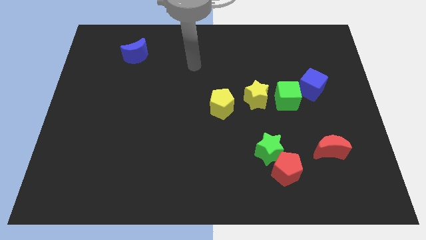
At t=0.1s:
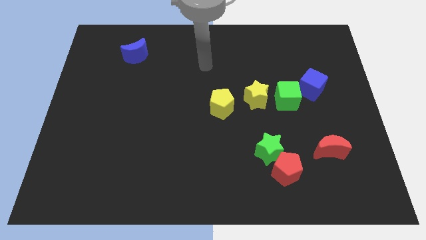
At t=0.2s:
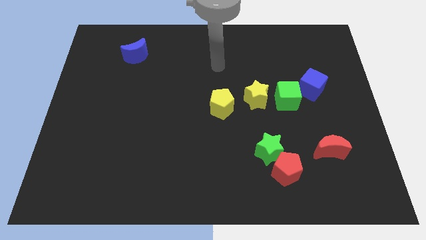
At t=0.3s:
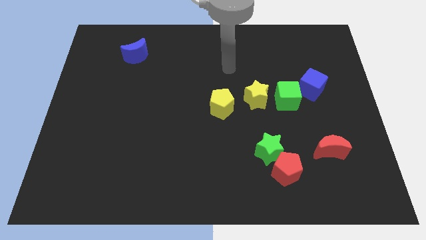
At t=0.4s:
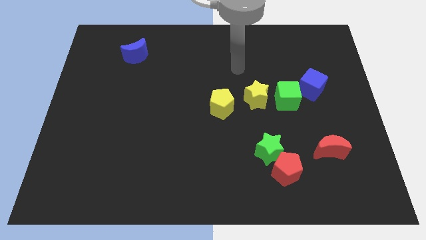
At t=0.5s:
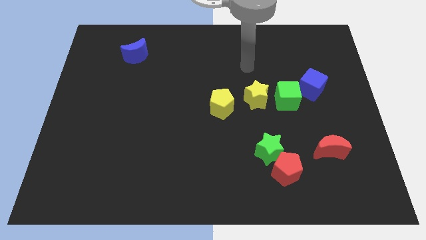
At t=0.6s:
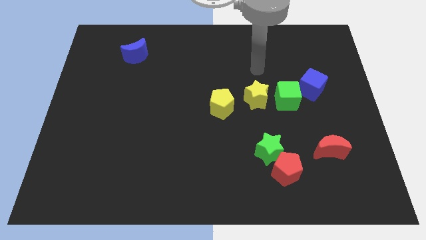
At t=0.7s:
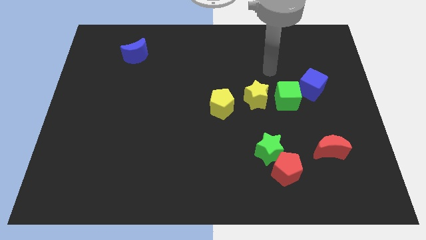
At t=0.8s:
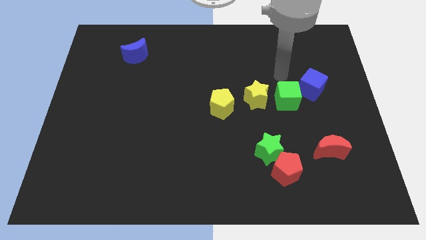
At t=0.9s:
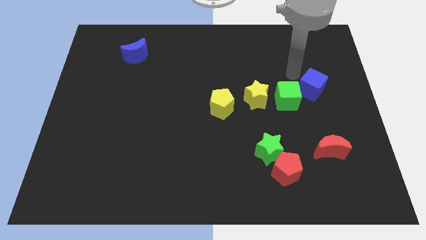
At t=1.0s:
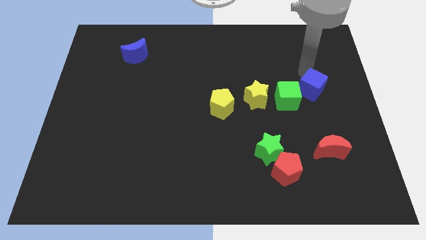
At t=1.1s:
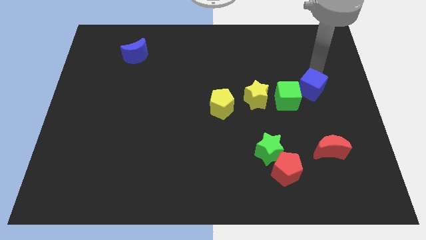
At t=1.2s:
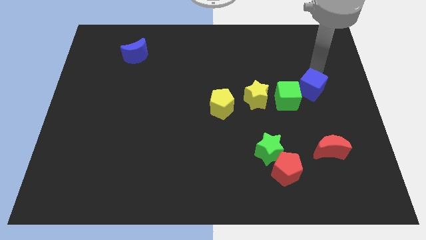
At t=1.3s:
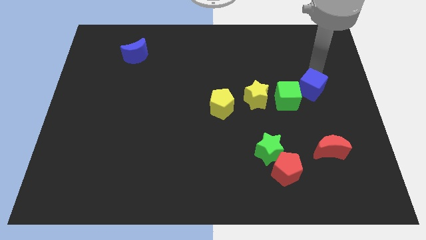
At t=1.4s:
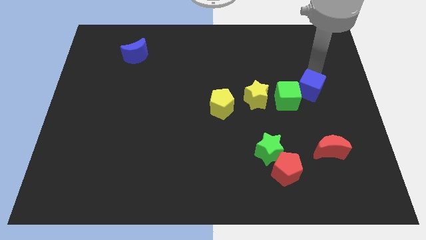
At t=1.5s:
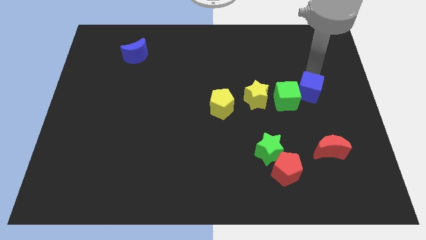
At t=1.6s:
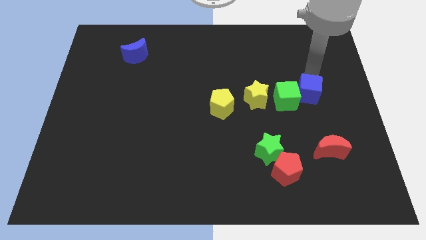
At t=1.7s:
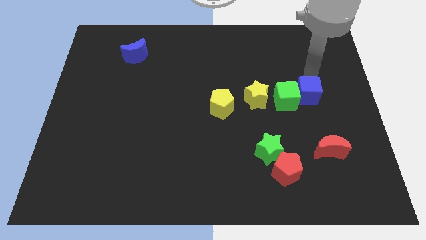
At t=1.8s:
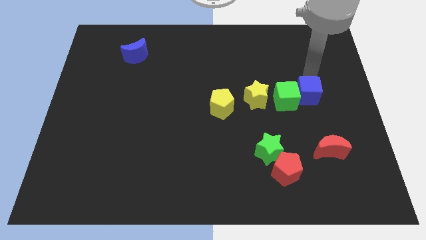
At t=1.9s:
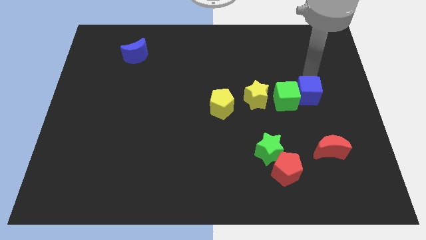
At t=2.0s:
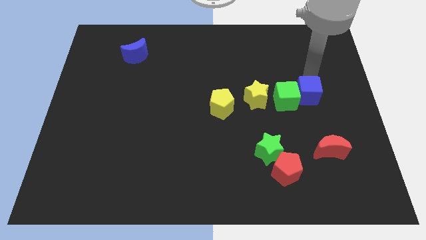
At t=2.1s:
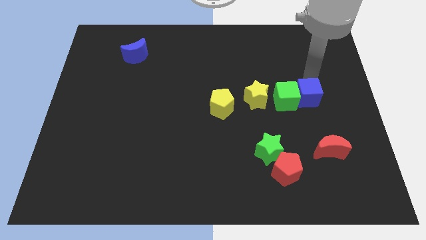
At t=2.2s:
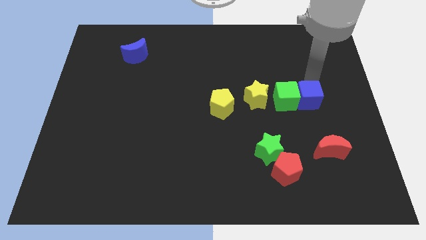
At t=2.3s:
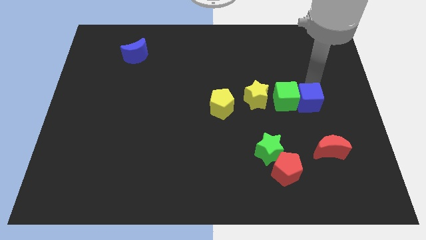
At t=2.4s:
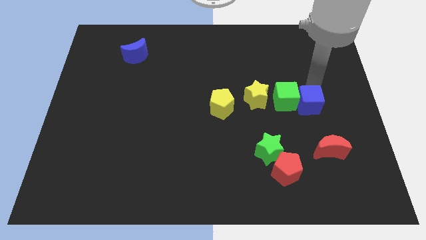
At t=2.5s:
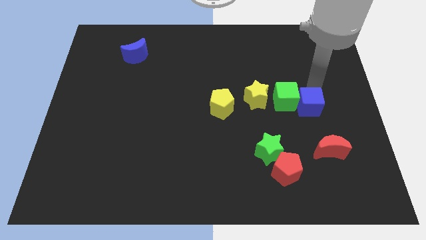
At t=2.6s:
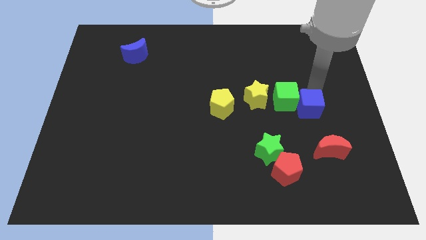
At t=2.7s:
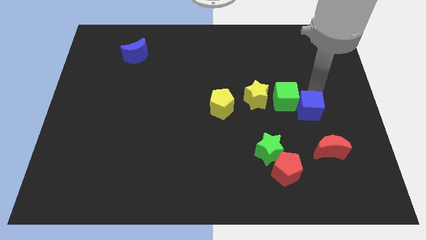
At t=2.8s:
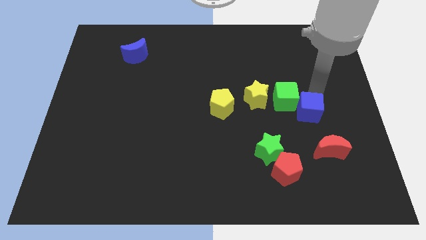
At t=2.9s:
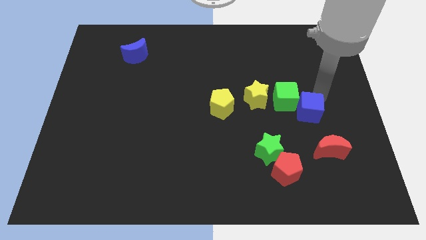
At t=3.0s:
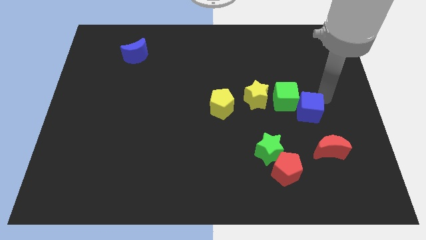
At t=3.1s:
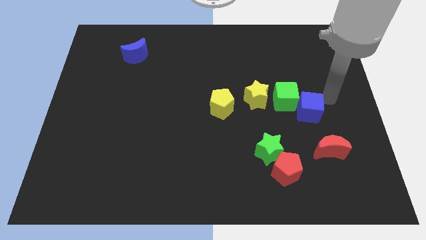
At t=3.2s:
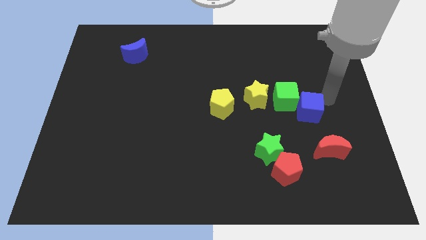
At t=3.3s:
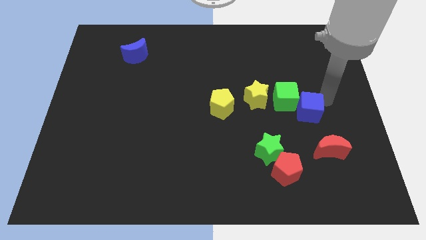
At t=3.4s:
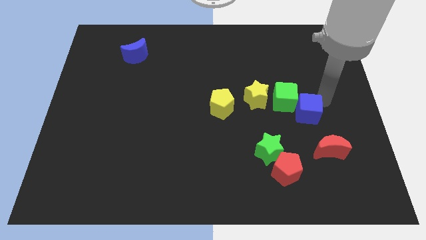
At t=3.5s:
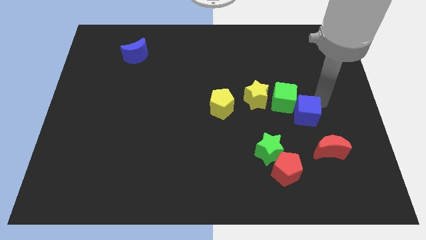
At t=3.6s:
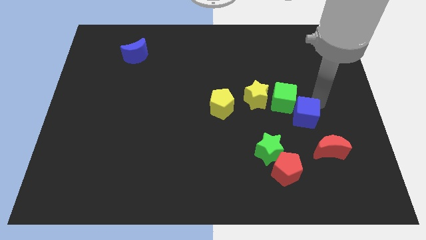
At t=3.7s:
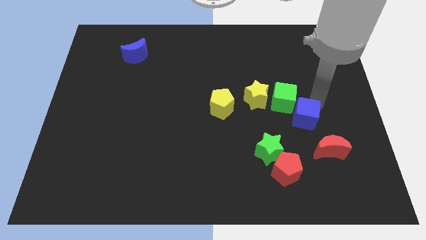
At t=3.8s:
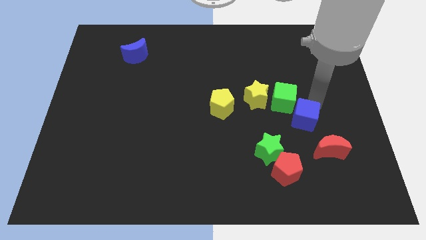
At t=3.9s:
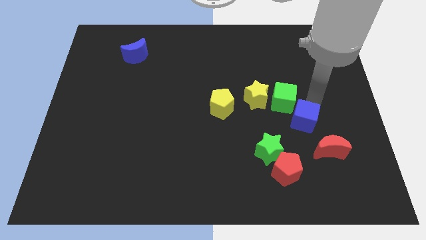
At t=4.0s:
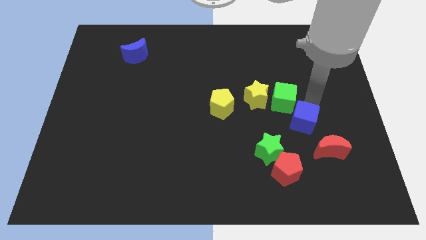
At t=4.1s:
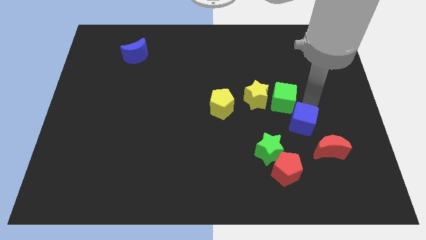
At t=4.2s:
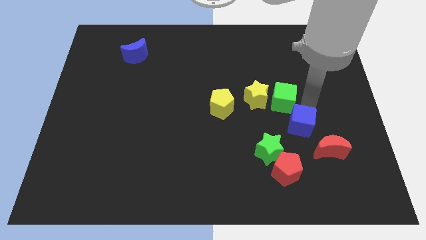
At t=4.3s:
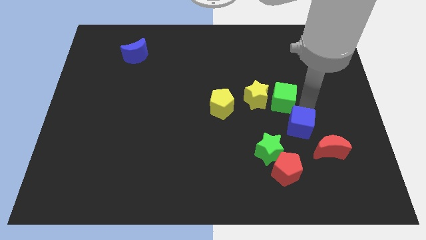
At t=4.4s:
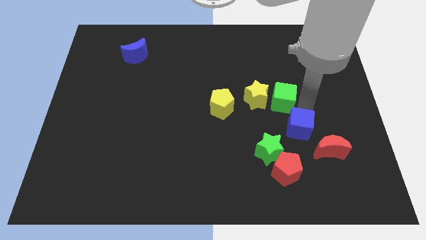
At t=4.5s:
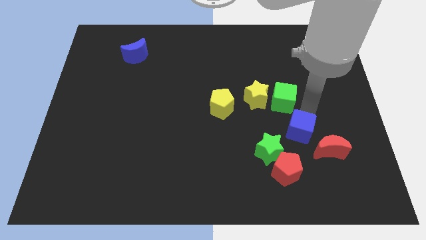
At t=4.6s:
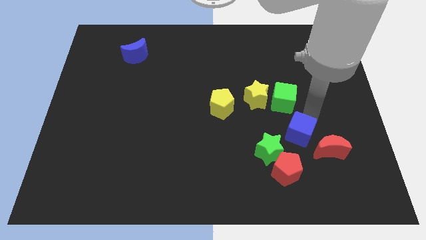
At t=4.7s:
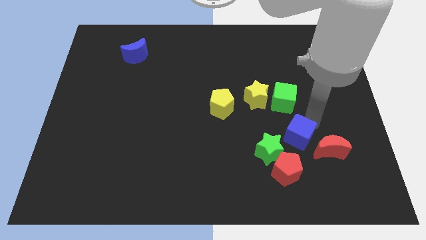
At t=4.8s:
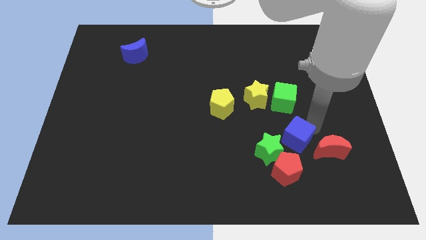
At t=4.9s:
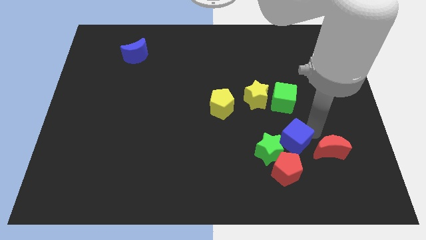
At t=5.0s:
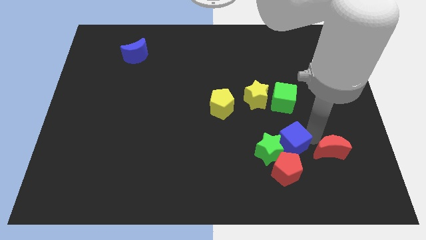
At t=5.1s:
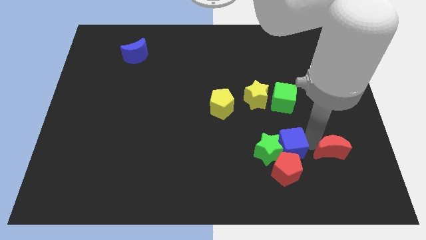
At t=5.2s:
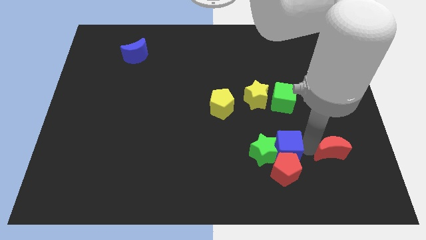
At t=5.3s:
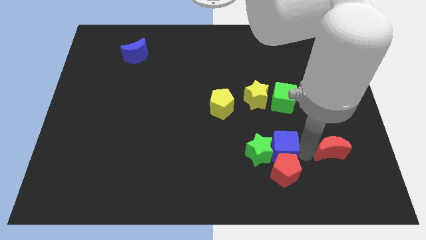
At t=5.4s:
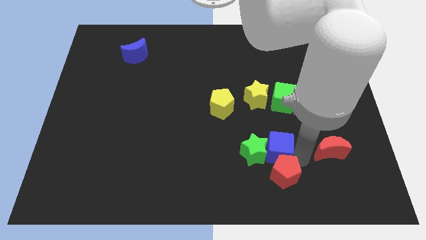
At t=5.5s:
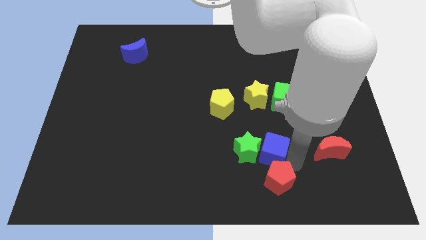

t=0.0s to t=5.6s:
slide the blue cube downwards and to the left diagonally

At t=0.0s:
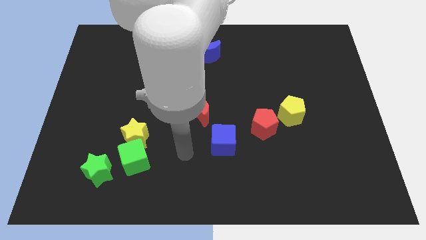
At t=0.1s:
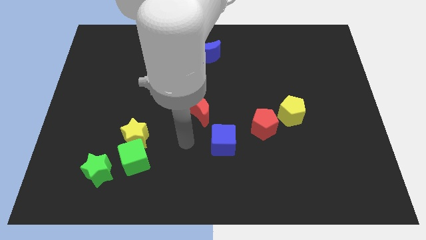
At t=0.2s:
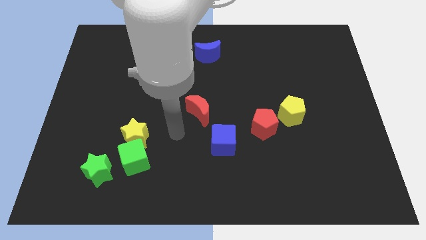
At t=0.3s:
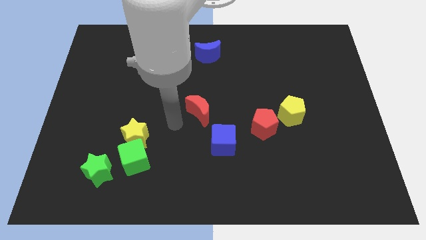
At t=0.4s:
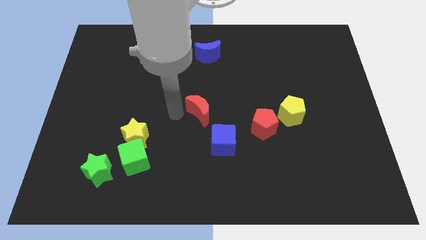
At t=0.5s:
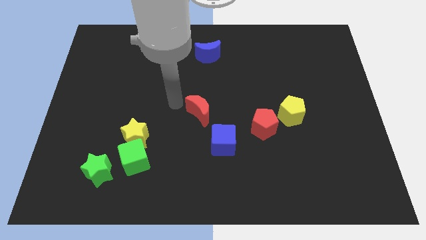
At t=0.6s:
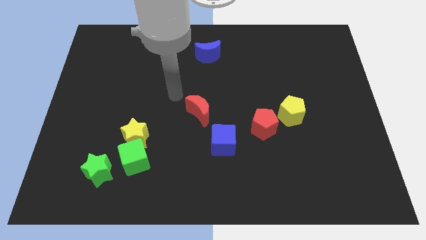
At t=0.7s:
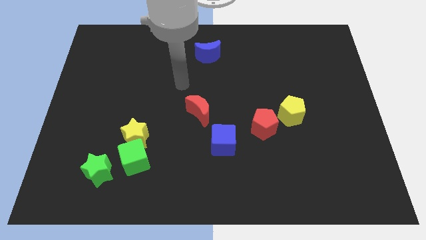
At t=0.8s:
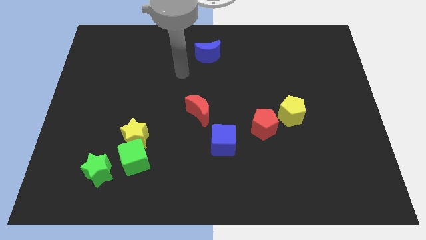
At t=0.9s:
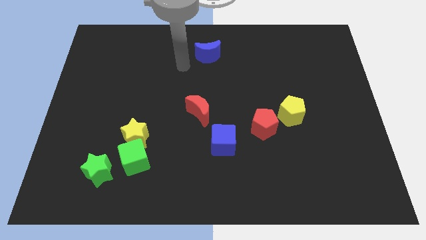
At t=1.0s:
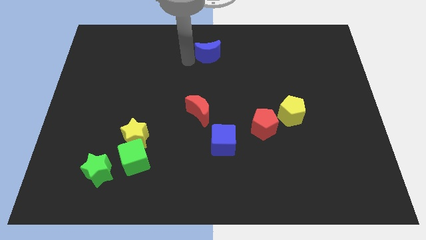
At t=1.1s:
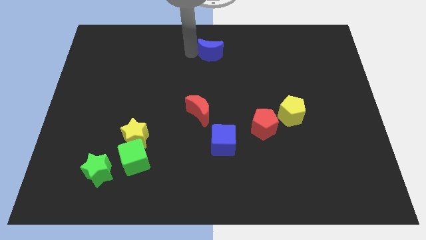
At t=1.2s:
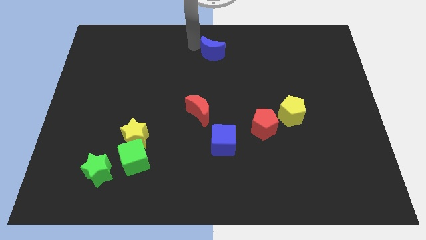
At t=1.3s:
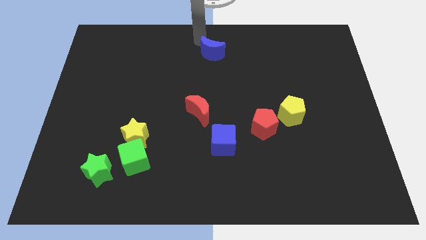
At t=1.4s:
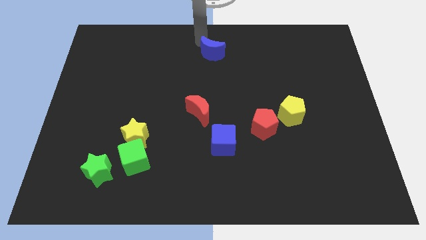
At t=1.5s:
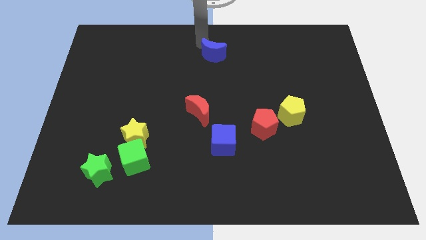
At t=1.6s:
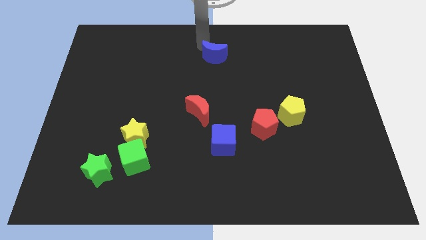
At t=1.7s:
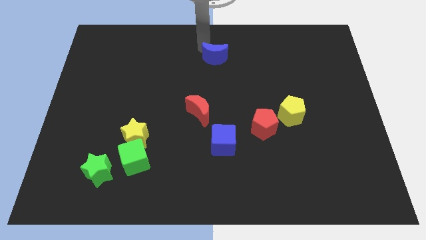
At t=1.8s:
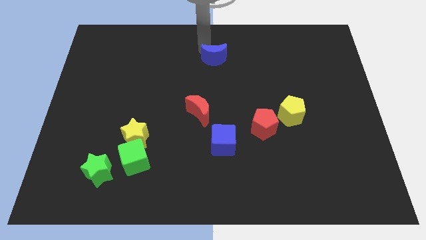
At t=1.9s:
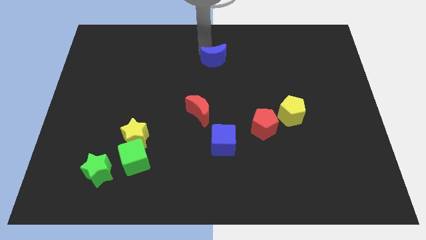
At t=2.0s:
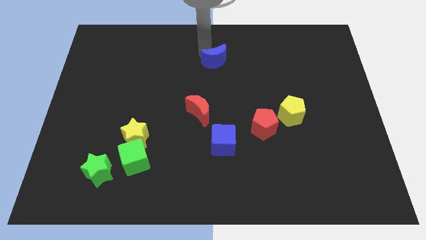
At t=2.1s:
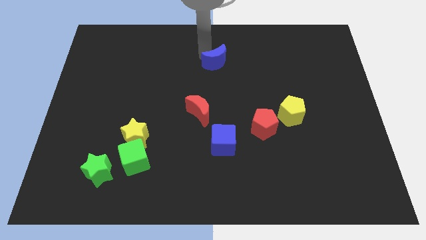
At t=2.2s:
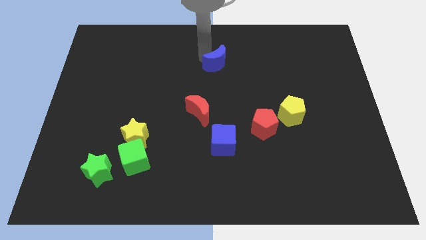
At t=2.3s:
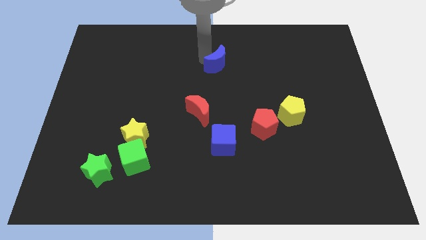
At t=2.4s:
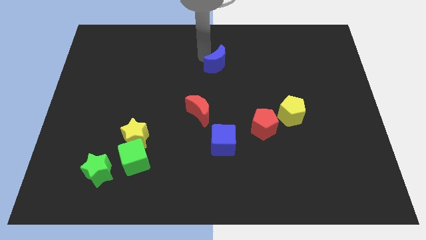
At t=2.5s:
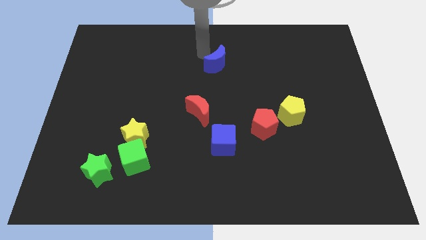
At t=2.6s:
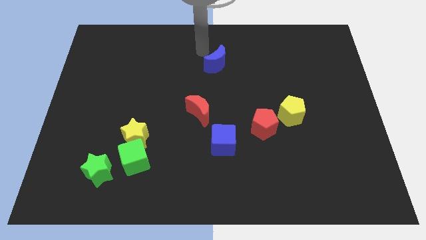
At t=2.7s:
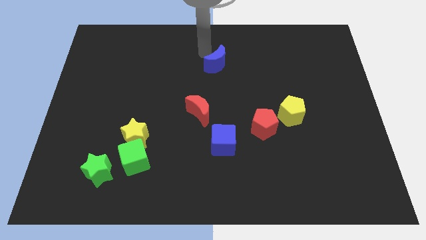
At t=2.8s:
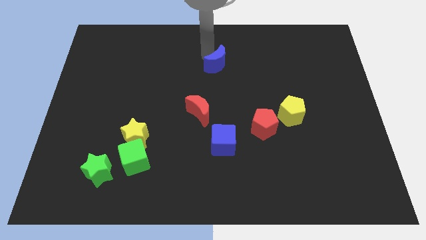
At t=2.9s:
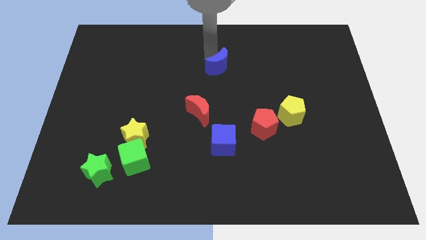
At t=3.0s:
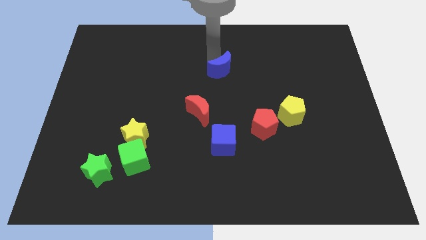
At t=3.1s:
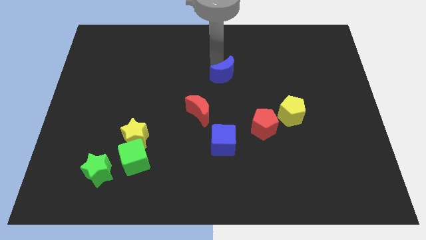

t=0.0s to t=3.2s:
slide the blue moon diagonally downwards and to the right slightly
